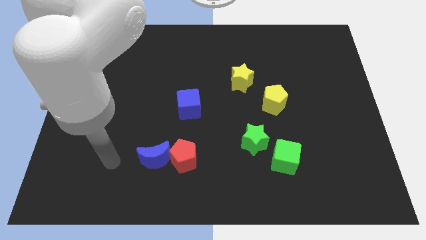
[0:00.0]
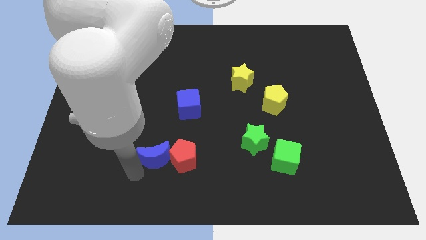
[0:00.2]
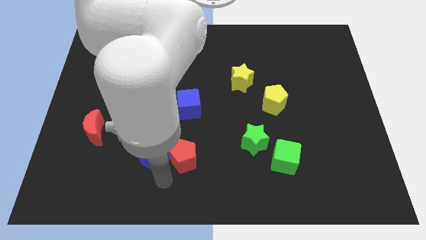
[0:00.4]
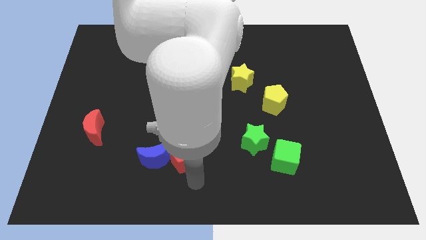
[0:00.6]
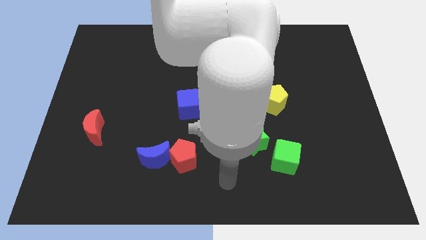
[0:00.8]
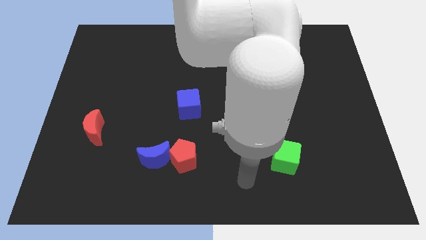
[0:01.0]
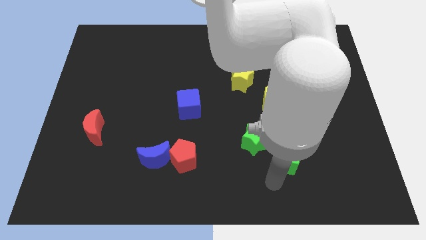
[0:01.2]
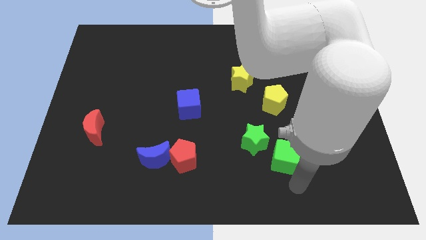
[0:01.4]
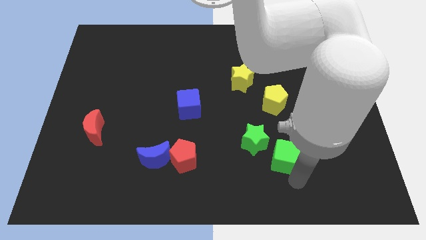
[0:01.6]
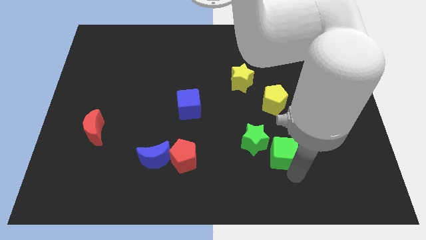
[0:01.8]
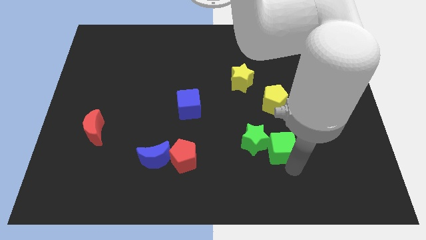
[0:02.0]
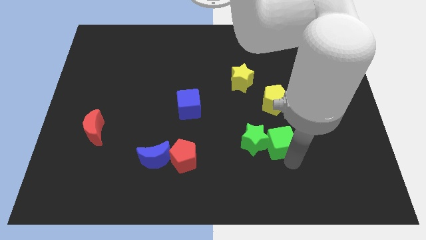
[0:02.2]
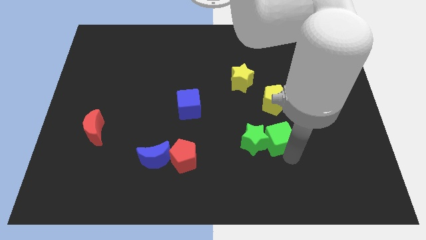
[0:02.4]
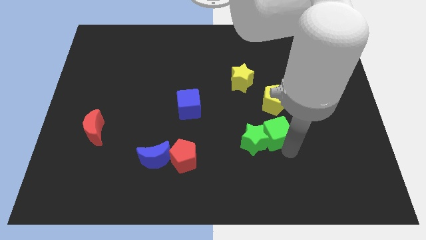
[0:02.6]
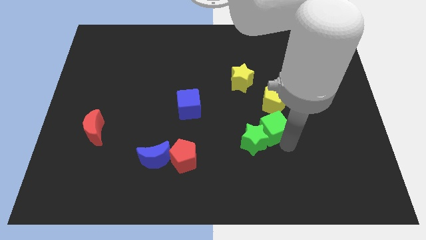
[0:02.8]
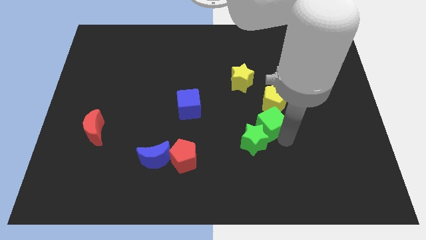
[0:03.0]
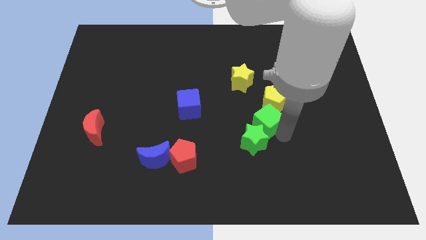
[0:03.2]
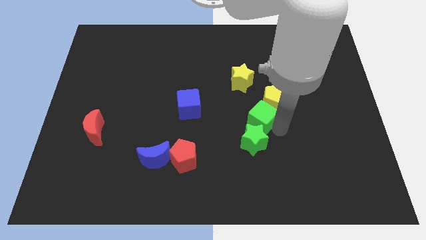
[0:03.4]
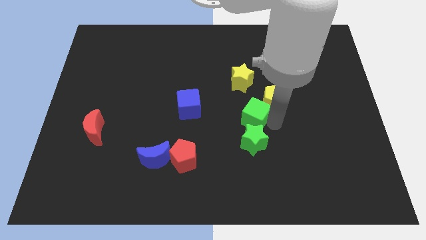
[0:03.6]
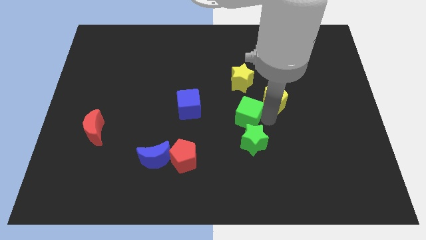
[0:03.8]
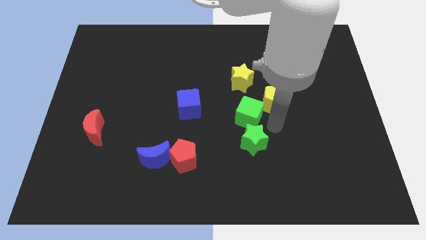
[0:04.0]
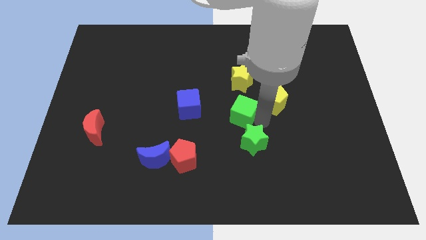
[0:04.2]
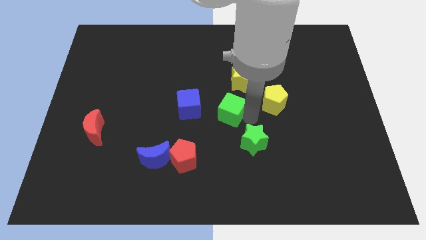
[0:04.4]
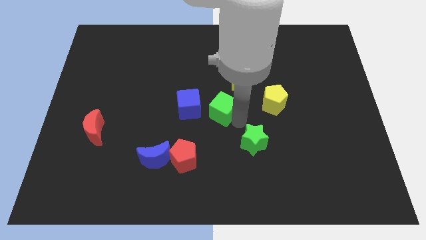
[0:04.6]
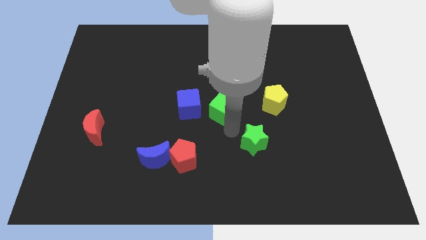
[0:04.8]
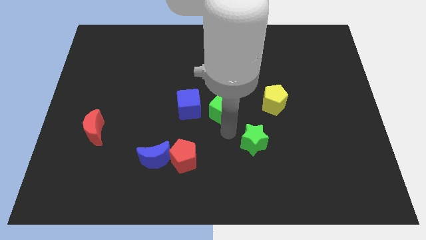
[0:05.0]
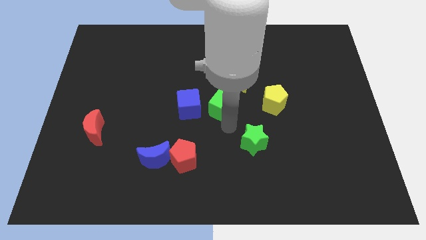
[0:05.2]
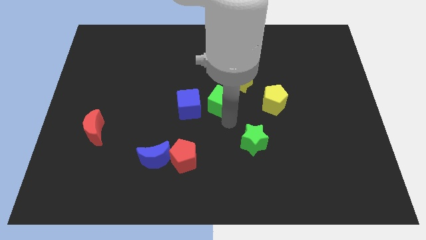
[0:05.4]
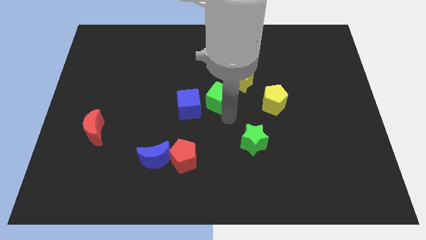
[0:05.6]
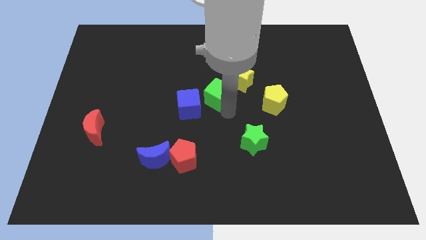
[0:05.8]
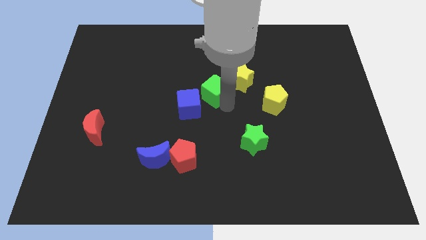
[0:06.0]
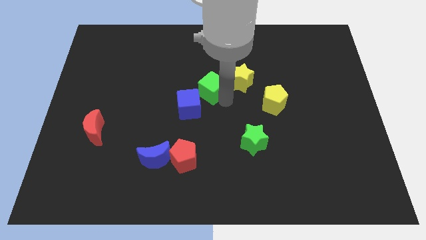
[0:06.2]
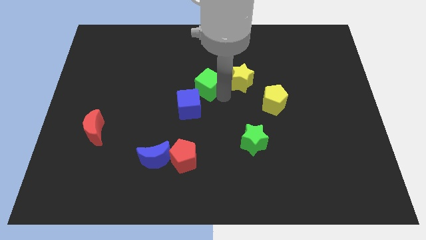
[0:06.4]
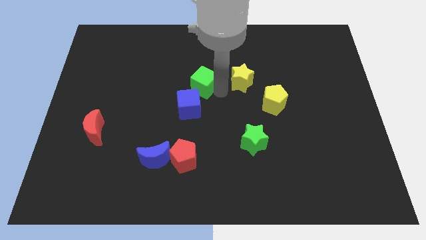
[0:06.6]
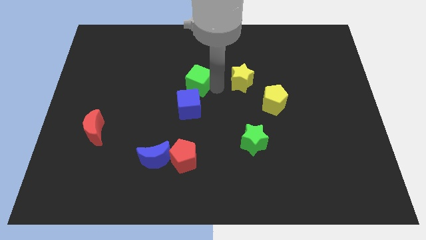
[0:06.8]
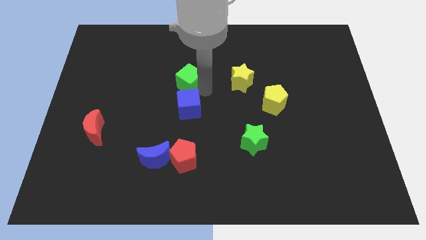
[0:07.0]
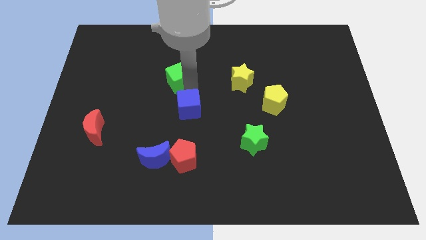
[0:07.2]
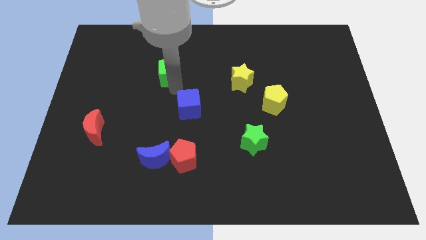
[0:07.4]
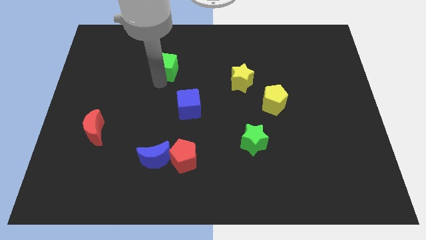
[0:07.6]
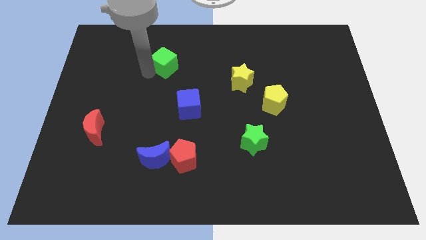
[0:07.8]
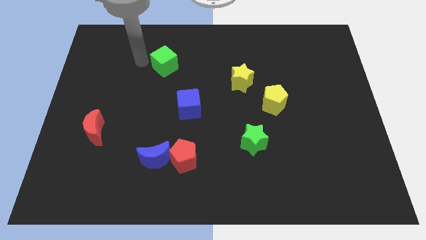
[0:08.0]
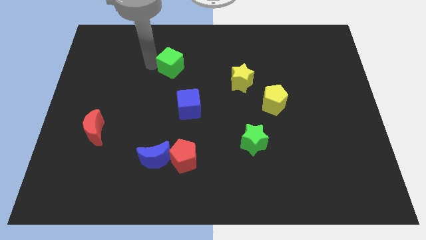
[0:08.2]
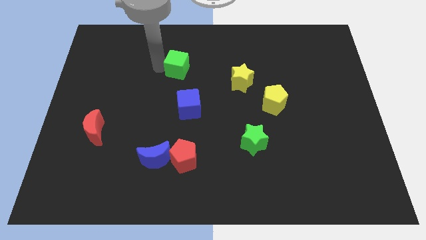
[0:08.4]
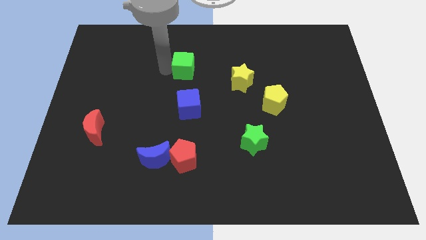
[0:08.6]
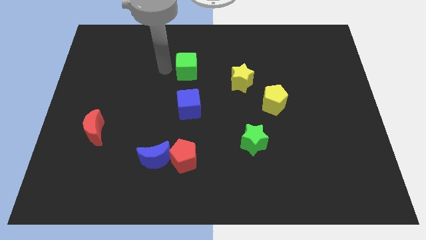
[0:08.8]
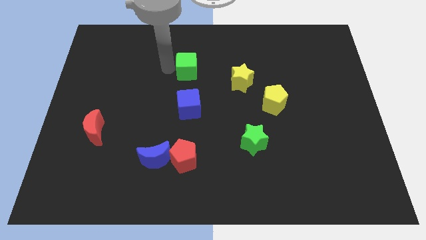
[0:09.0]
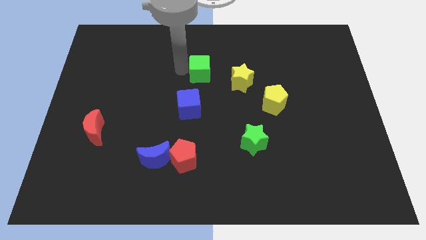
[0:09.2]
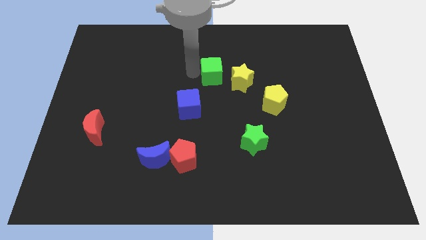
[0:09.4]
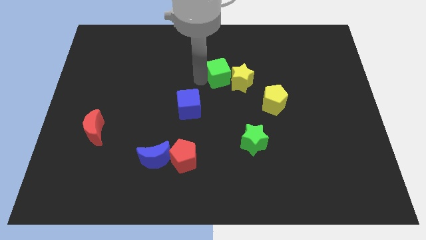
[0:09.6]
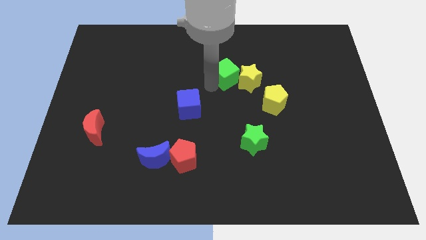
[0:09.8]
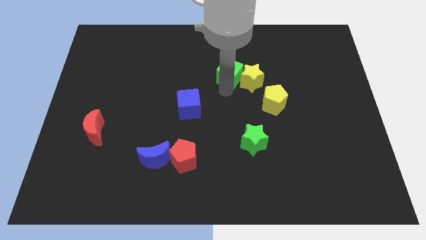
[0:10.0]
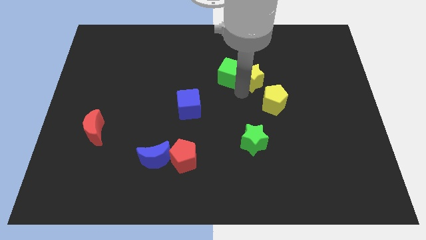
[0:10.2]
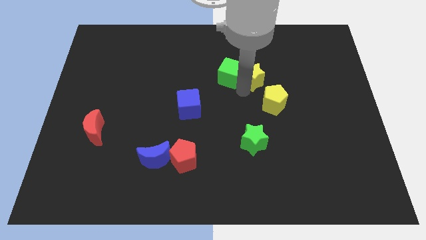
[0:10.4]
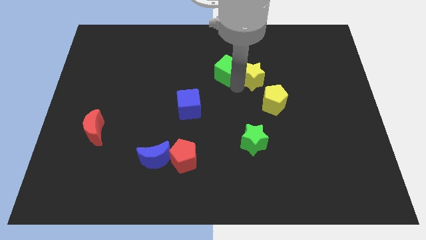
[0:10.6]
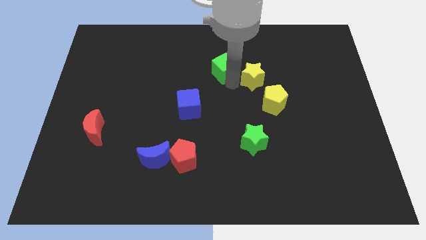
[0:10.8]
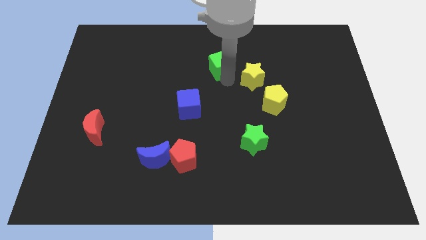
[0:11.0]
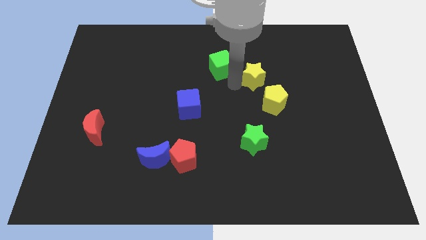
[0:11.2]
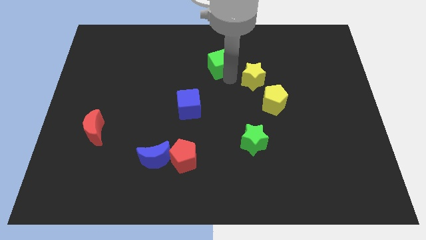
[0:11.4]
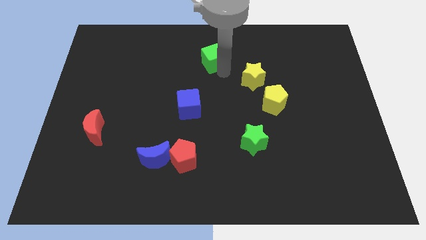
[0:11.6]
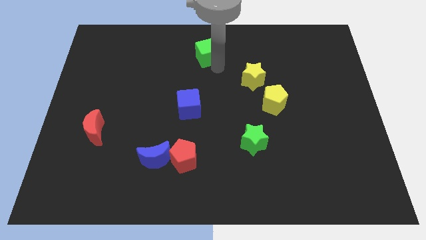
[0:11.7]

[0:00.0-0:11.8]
slide the green cube to the top

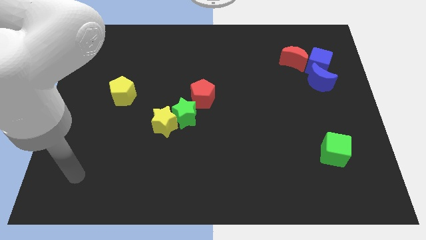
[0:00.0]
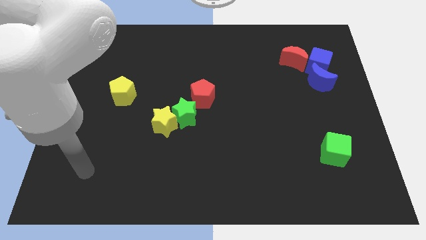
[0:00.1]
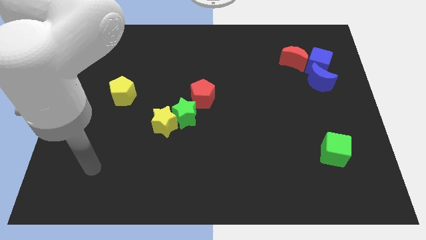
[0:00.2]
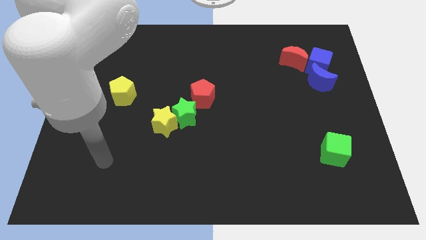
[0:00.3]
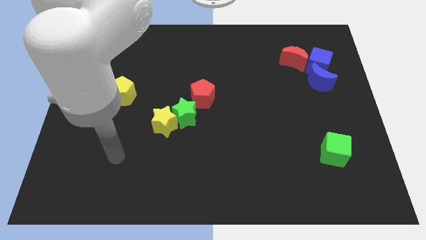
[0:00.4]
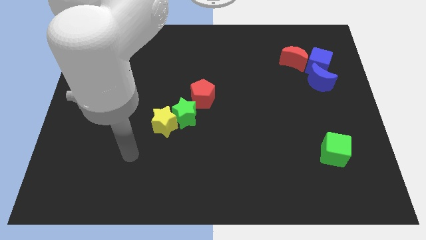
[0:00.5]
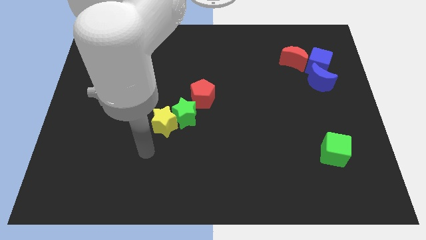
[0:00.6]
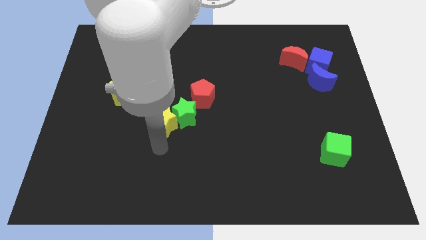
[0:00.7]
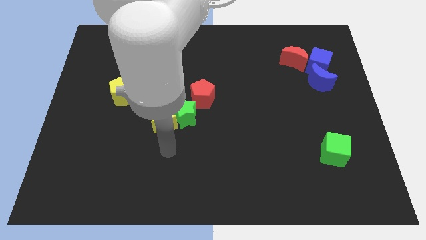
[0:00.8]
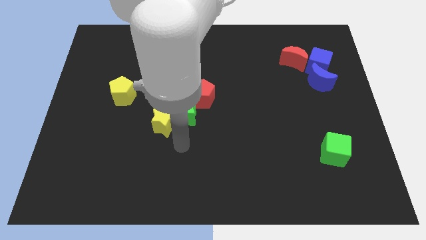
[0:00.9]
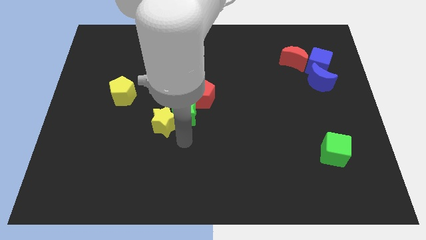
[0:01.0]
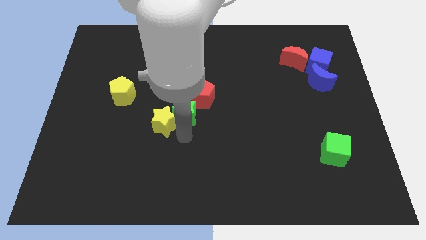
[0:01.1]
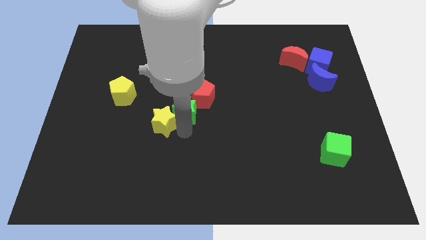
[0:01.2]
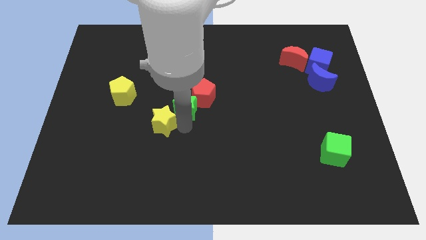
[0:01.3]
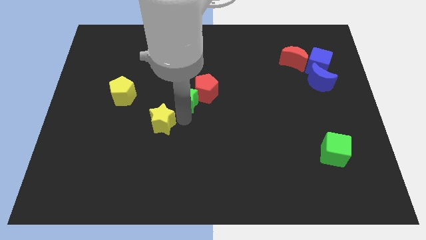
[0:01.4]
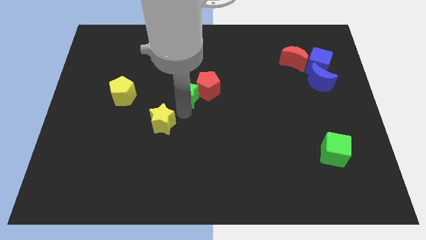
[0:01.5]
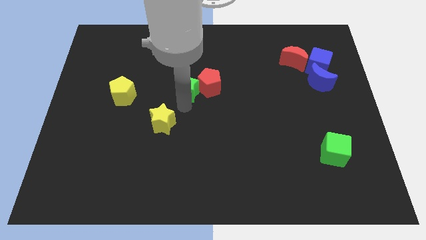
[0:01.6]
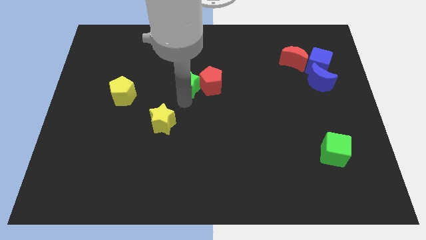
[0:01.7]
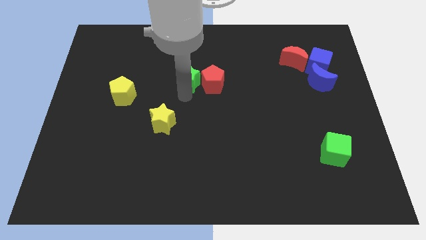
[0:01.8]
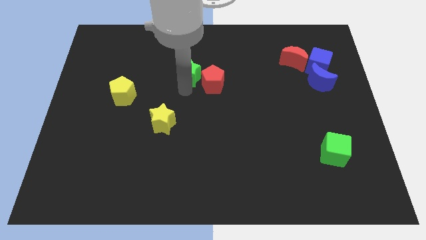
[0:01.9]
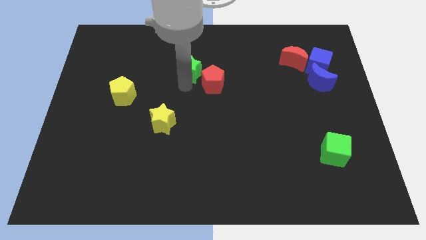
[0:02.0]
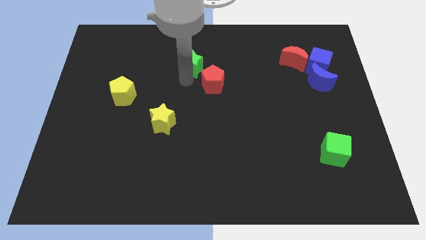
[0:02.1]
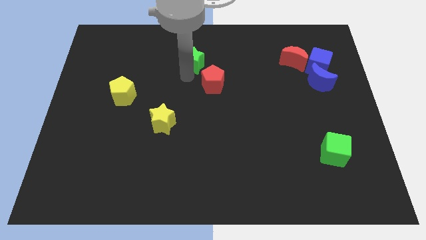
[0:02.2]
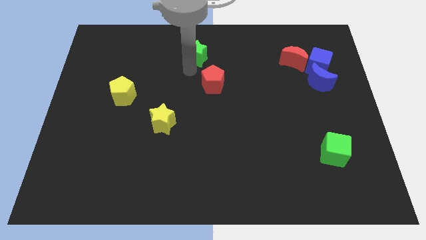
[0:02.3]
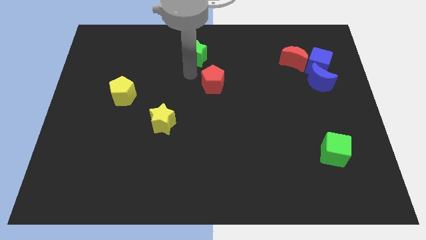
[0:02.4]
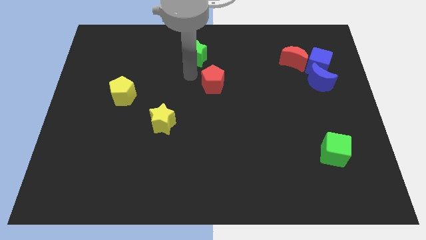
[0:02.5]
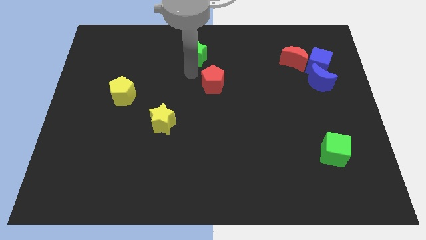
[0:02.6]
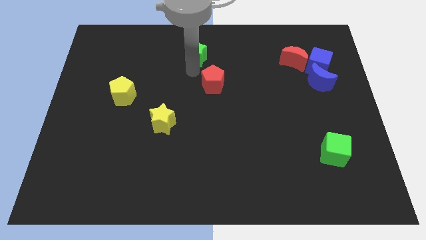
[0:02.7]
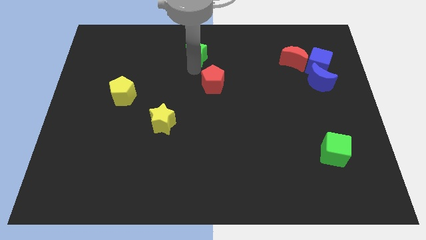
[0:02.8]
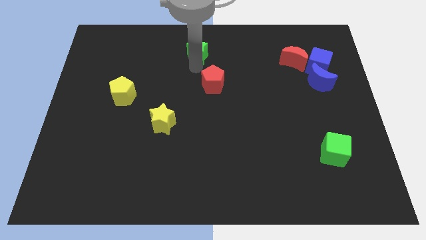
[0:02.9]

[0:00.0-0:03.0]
push the green star to the top side
